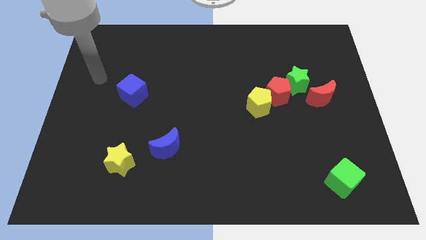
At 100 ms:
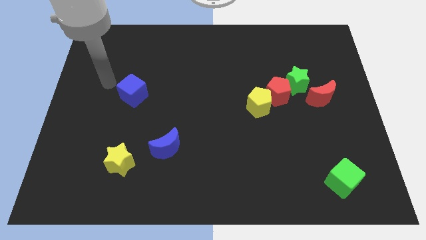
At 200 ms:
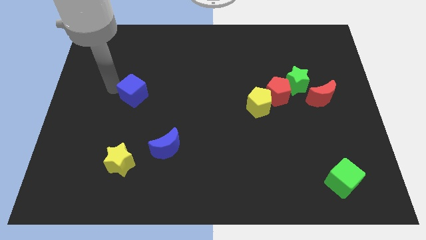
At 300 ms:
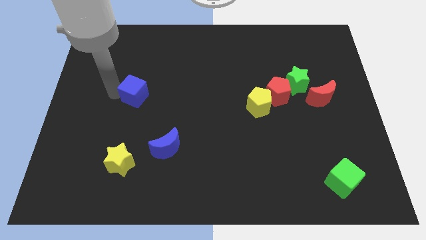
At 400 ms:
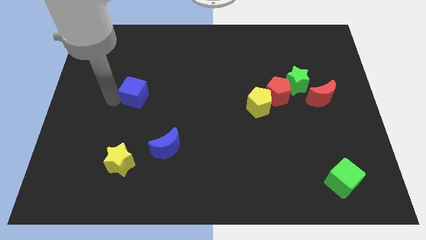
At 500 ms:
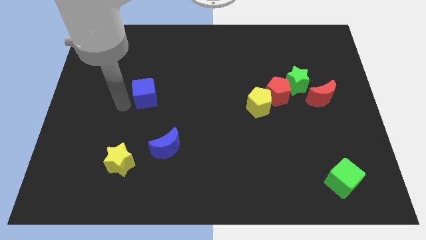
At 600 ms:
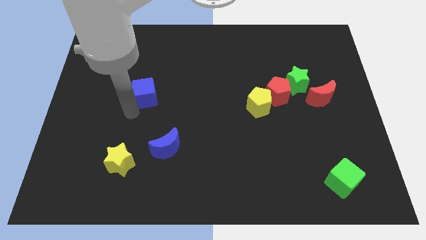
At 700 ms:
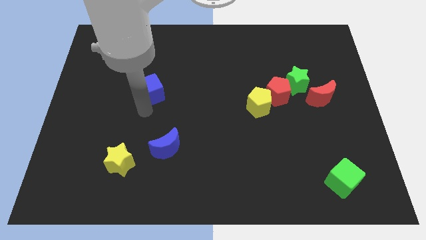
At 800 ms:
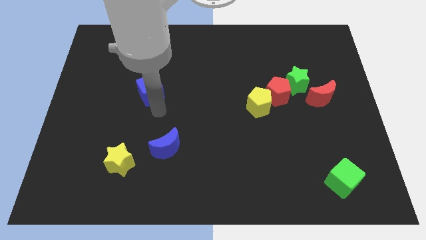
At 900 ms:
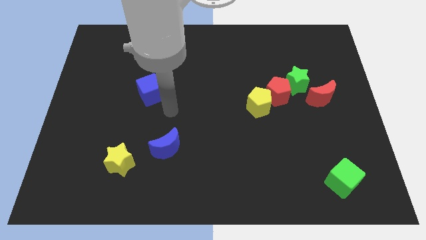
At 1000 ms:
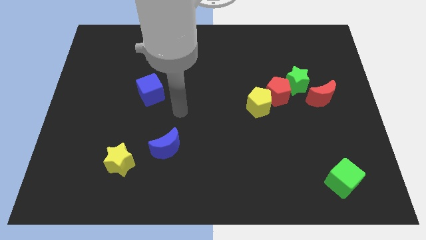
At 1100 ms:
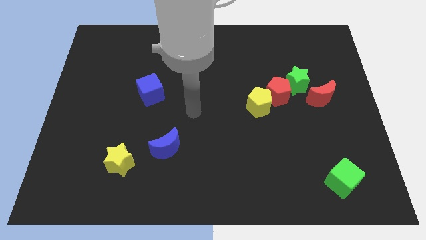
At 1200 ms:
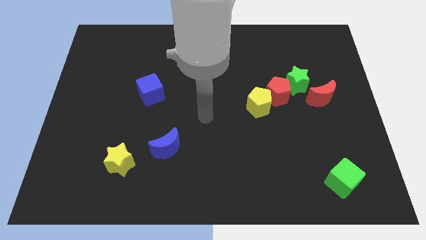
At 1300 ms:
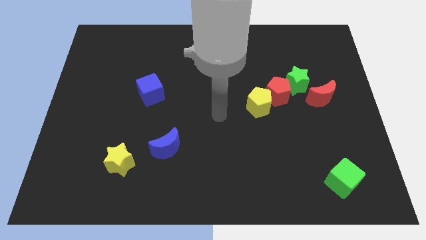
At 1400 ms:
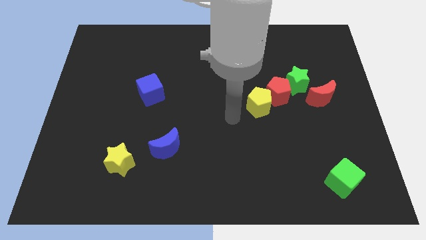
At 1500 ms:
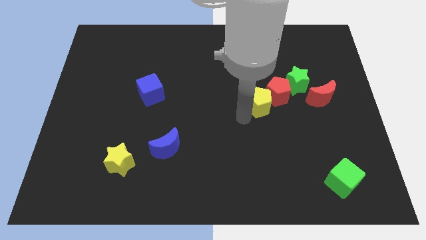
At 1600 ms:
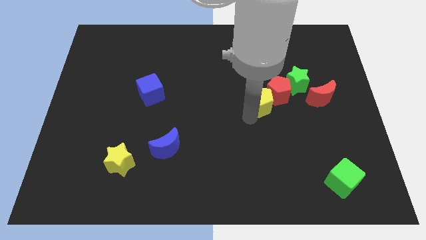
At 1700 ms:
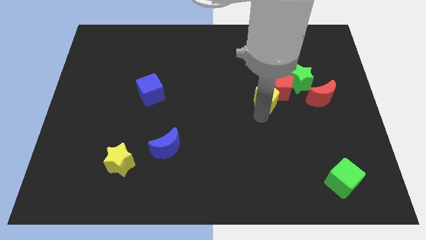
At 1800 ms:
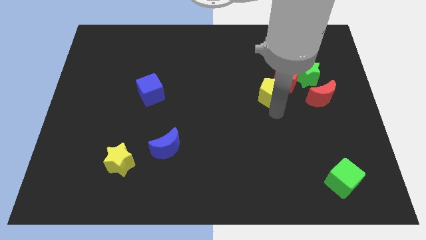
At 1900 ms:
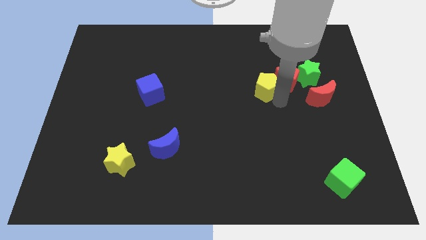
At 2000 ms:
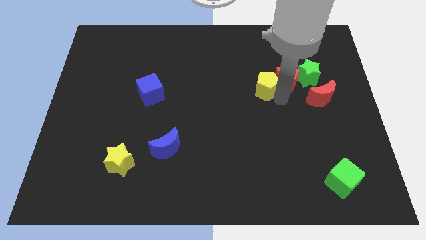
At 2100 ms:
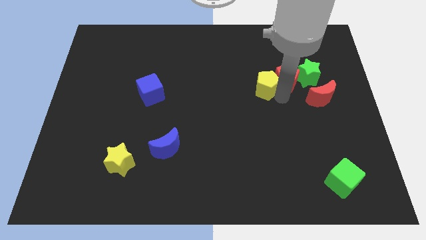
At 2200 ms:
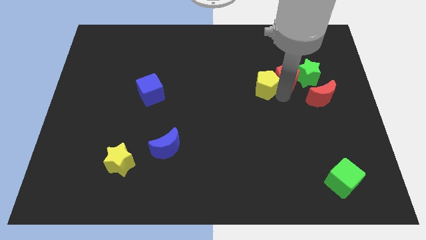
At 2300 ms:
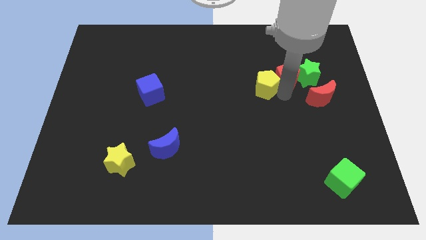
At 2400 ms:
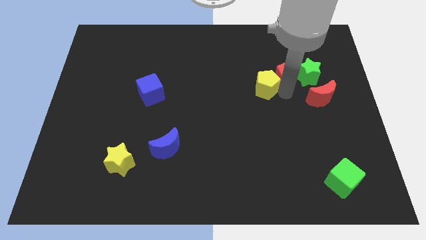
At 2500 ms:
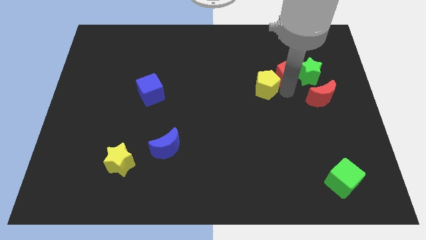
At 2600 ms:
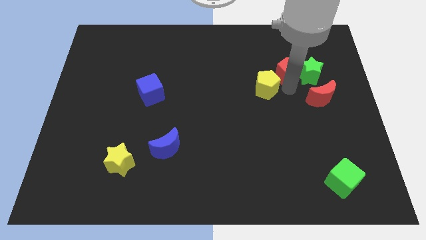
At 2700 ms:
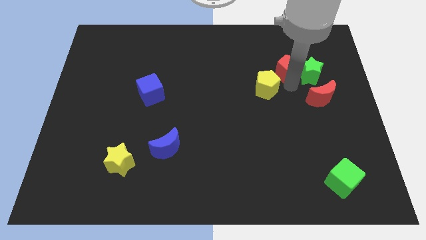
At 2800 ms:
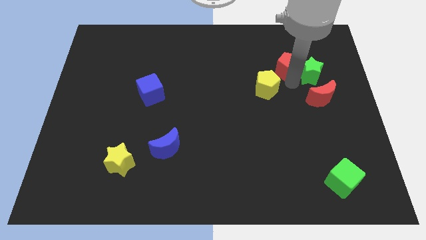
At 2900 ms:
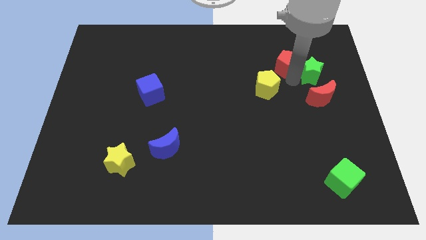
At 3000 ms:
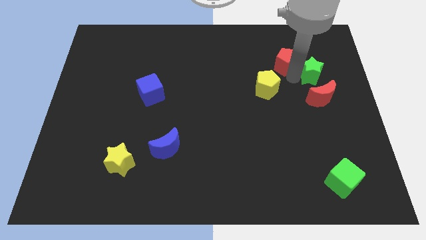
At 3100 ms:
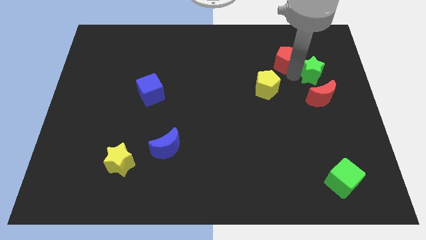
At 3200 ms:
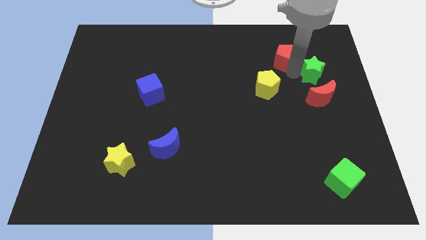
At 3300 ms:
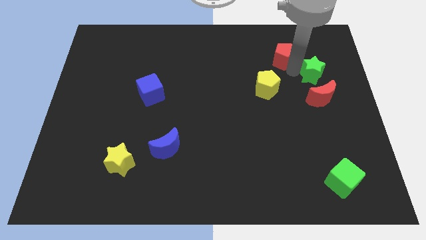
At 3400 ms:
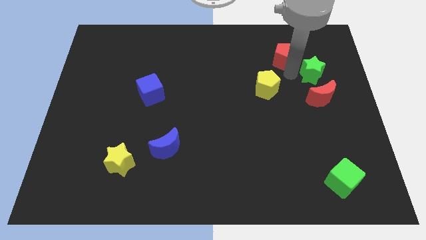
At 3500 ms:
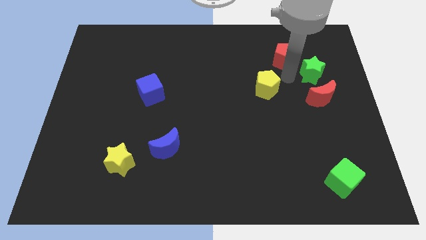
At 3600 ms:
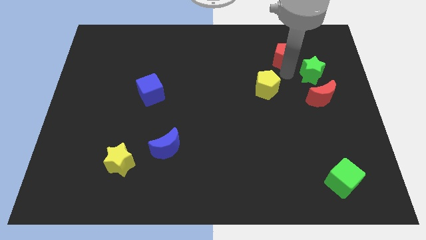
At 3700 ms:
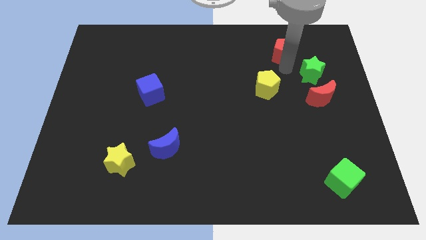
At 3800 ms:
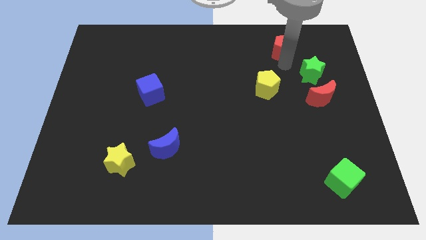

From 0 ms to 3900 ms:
pull the red pentagon apart from the green star and yellow pentagon

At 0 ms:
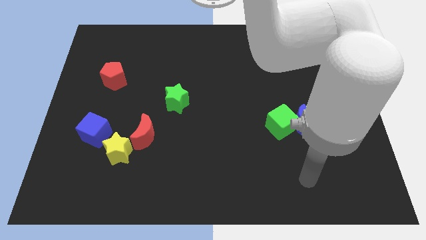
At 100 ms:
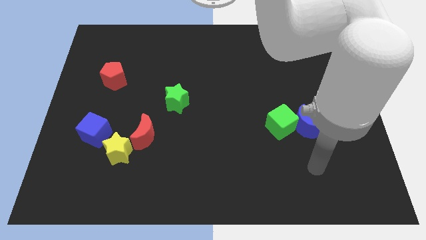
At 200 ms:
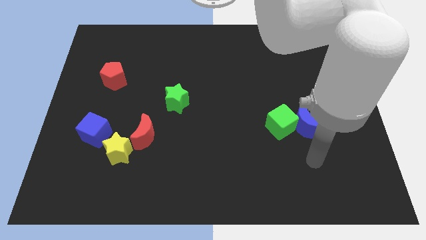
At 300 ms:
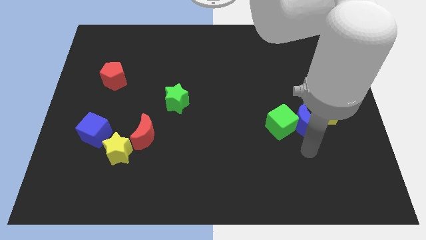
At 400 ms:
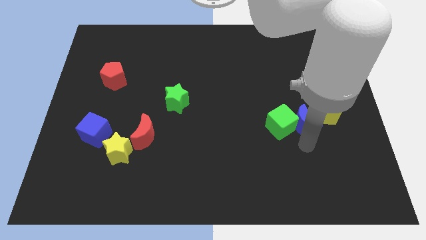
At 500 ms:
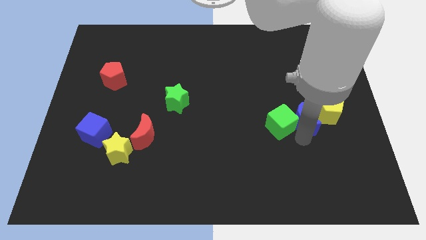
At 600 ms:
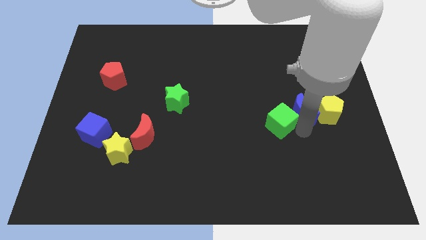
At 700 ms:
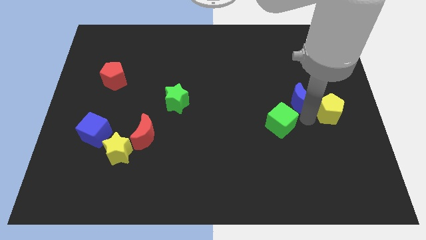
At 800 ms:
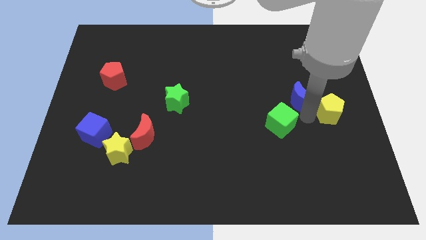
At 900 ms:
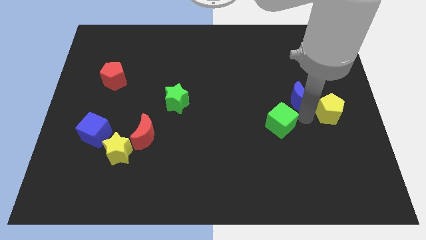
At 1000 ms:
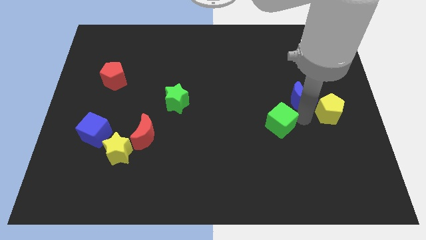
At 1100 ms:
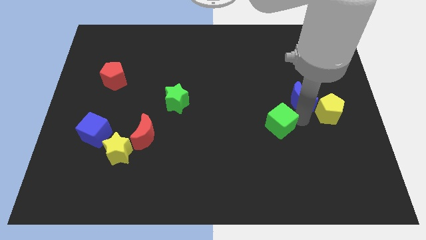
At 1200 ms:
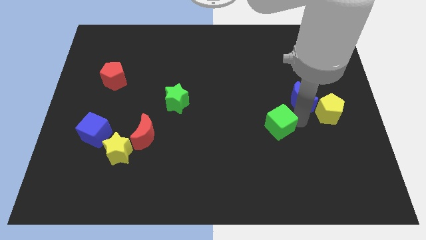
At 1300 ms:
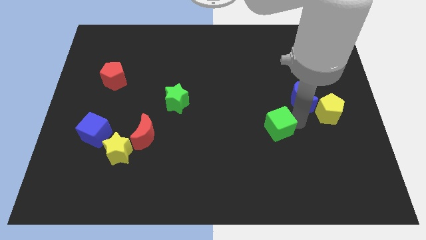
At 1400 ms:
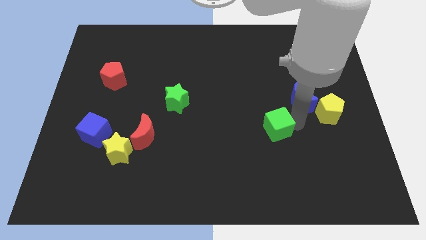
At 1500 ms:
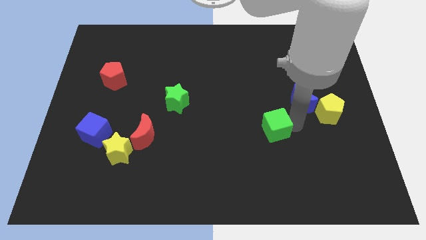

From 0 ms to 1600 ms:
pull the green cube apart from the blue moon

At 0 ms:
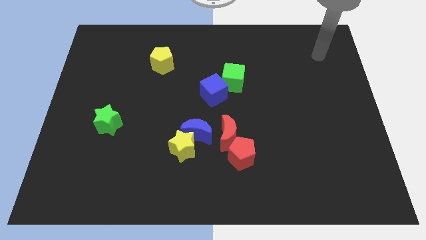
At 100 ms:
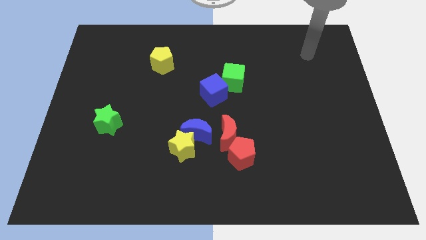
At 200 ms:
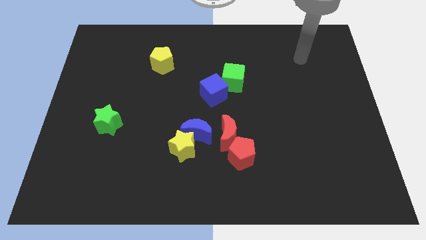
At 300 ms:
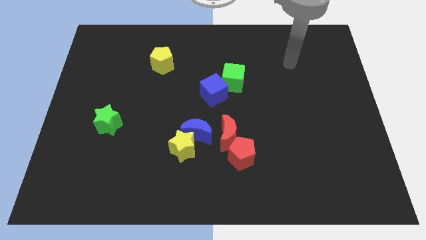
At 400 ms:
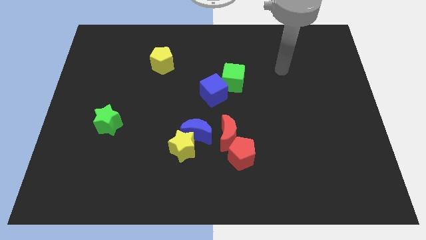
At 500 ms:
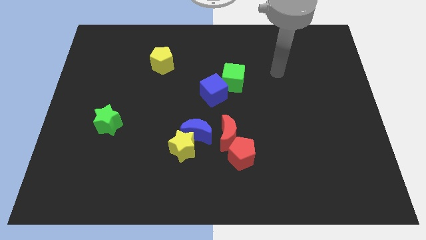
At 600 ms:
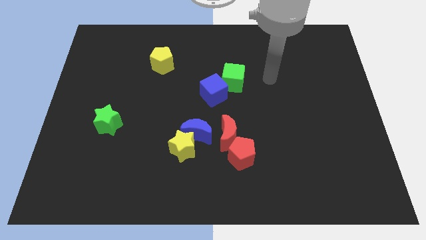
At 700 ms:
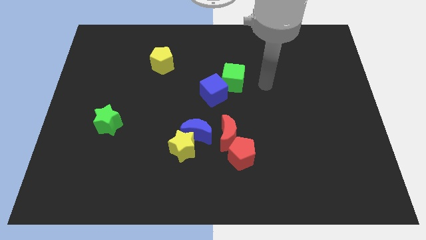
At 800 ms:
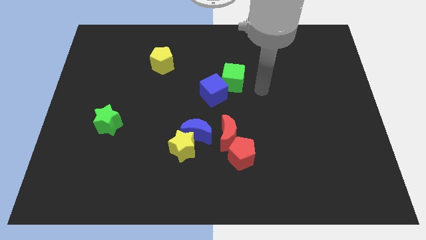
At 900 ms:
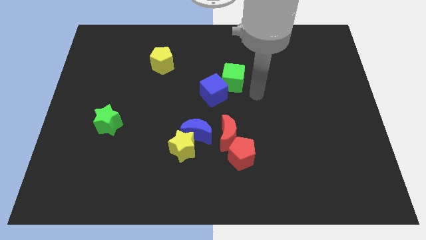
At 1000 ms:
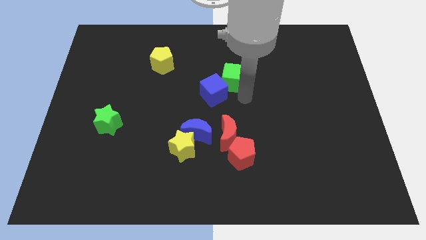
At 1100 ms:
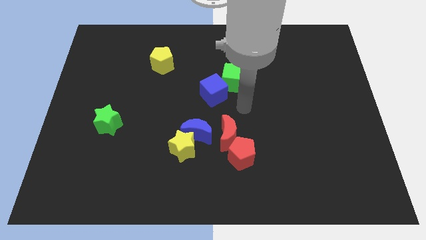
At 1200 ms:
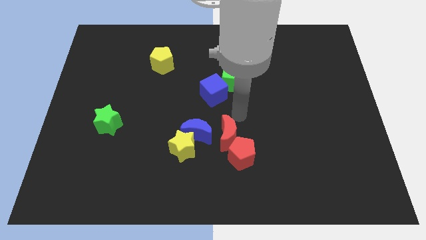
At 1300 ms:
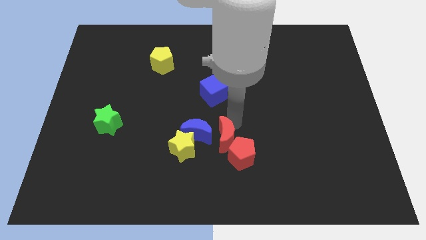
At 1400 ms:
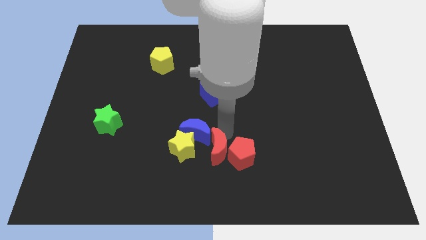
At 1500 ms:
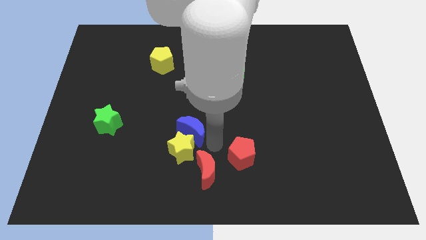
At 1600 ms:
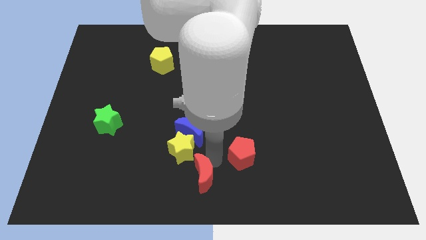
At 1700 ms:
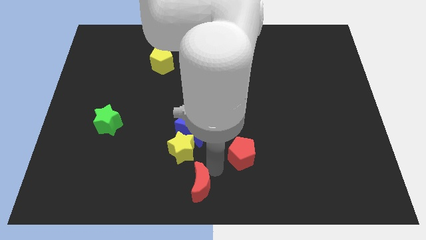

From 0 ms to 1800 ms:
separate the red pentagon from the red moon

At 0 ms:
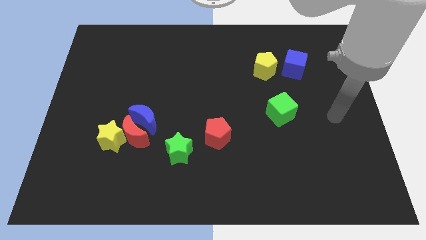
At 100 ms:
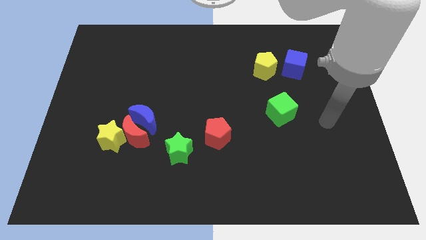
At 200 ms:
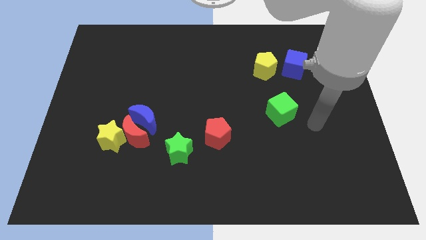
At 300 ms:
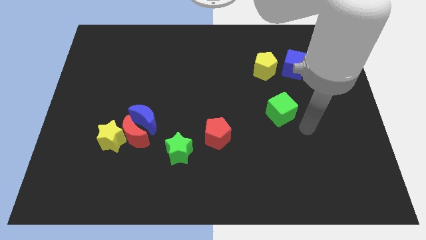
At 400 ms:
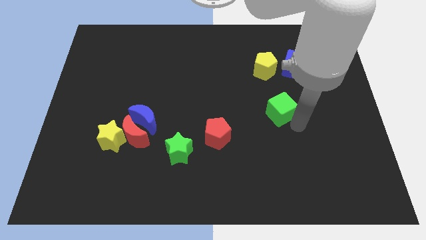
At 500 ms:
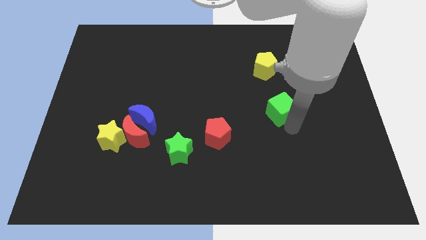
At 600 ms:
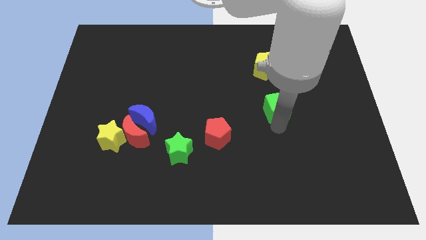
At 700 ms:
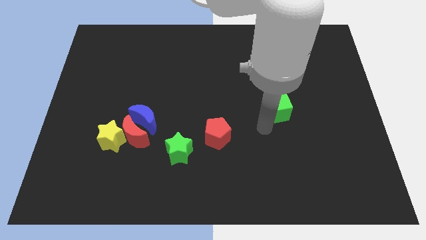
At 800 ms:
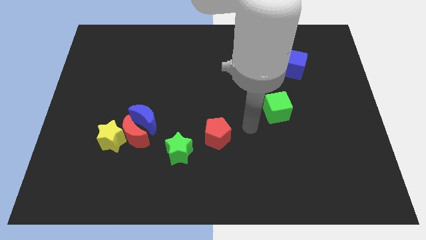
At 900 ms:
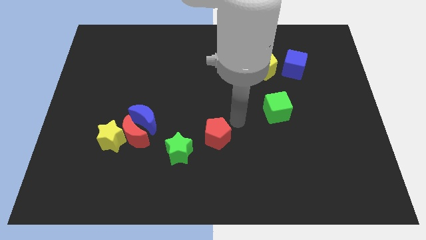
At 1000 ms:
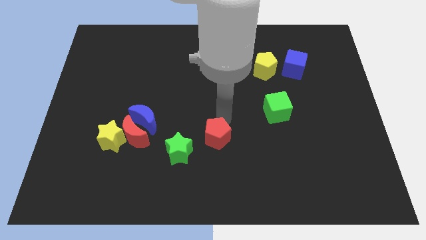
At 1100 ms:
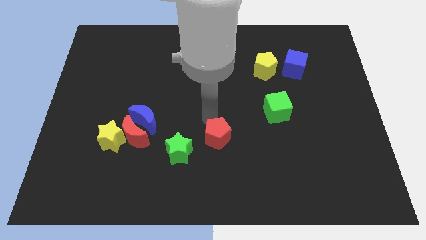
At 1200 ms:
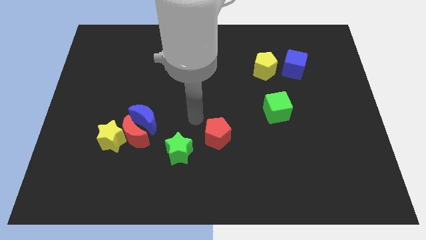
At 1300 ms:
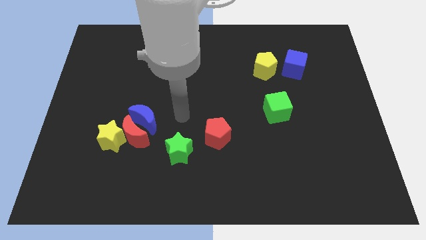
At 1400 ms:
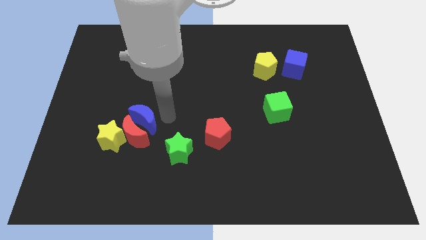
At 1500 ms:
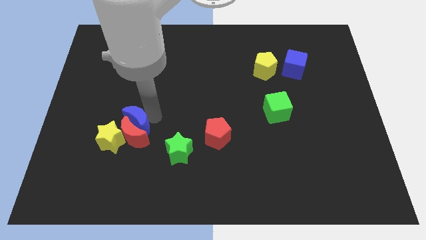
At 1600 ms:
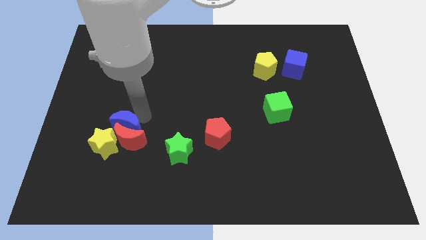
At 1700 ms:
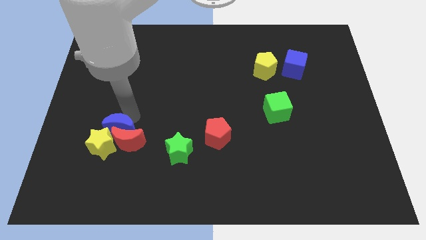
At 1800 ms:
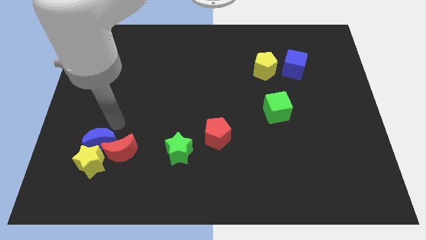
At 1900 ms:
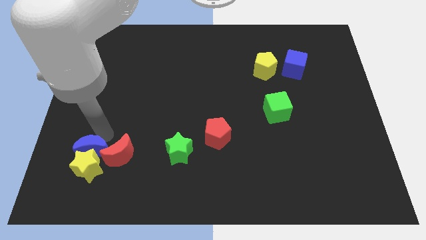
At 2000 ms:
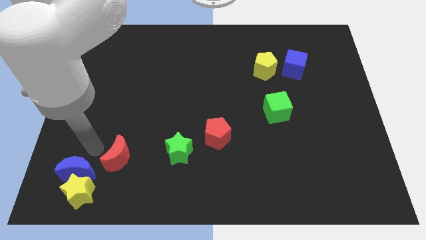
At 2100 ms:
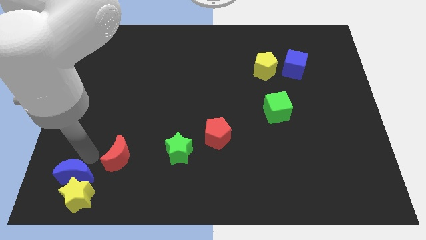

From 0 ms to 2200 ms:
pull the red moon apart from the yellow star and blue moon
